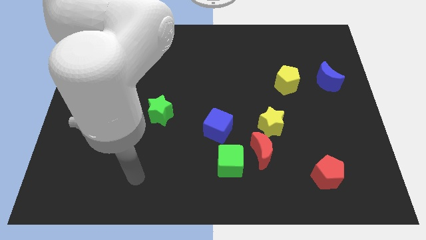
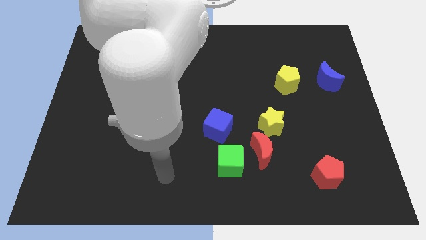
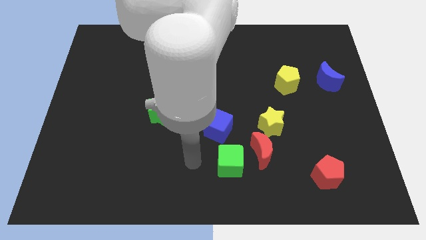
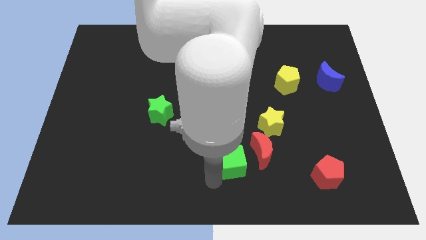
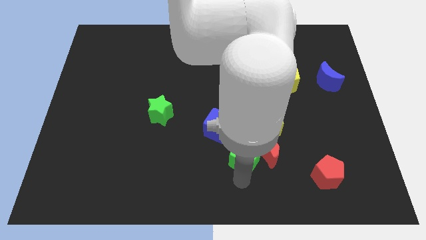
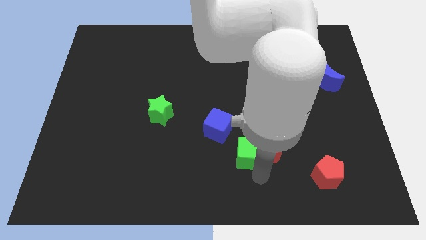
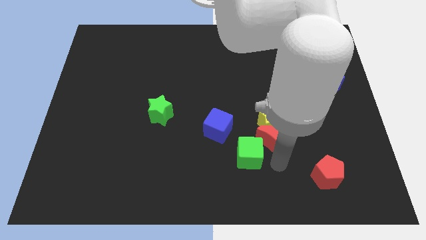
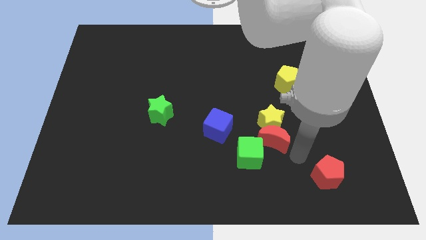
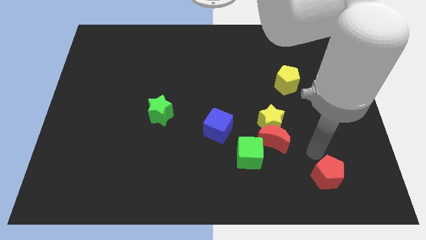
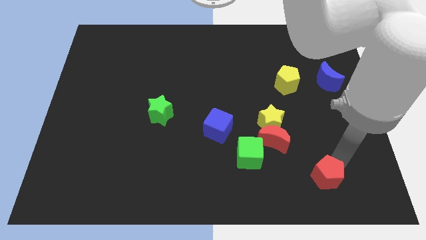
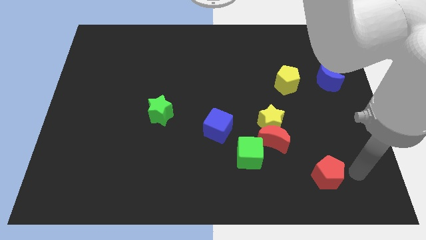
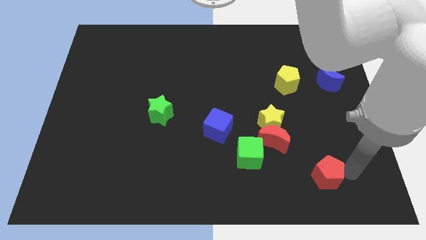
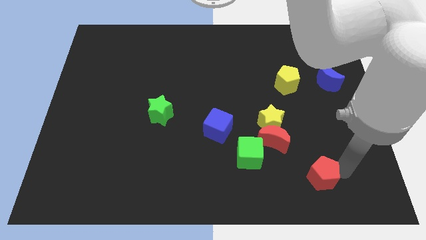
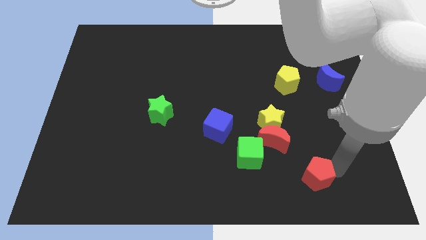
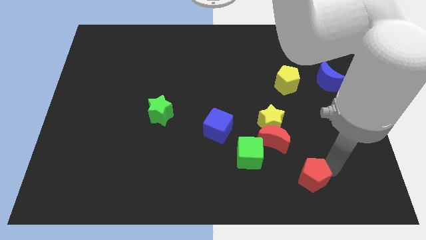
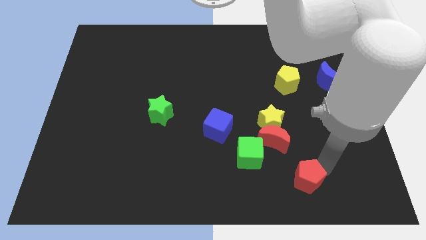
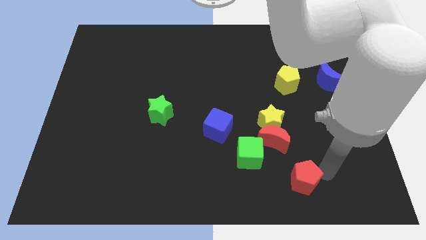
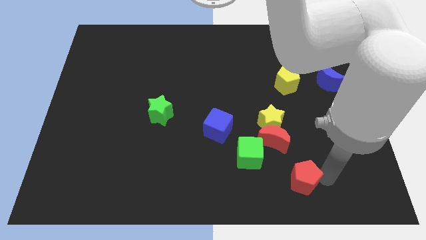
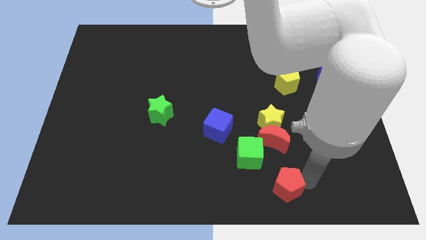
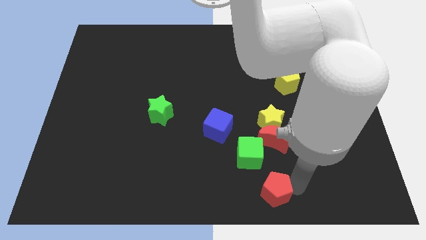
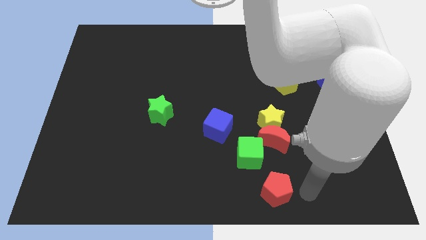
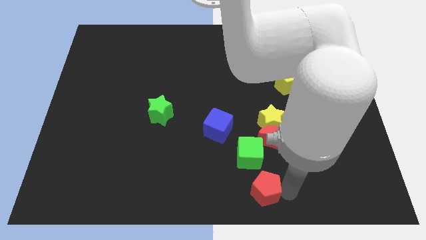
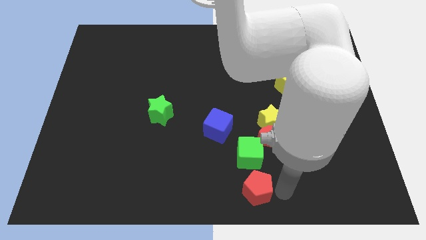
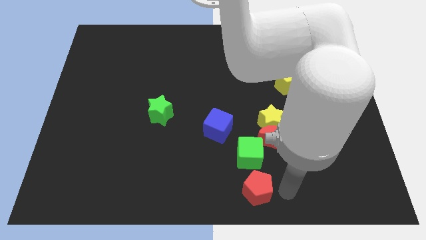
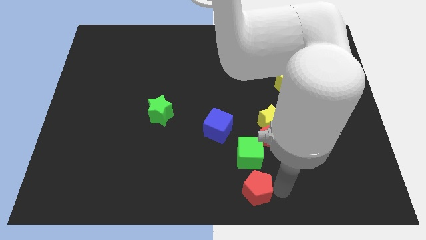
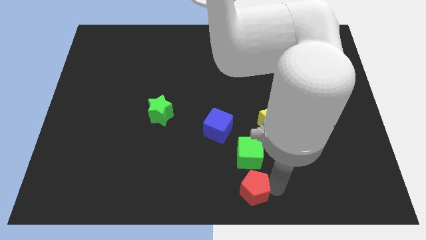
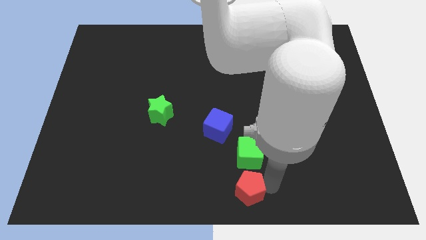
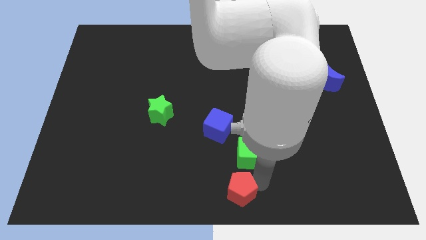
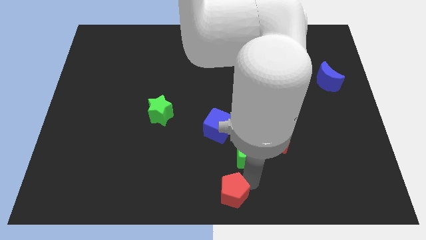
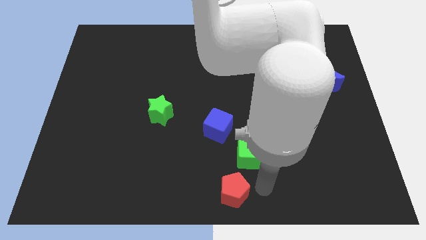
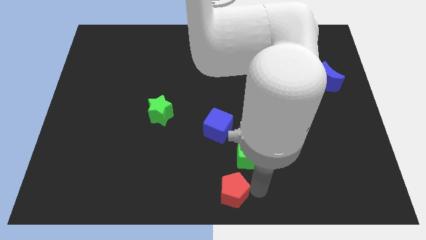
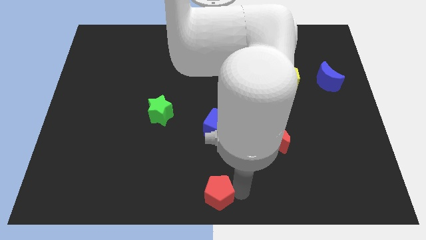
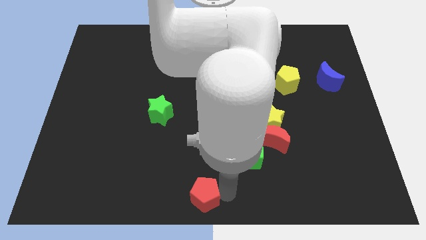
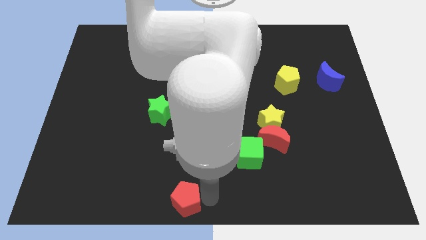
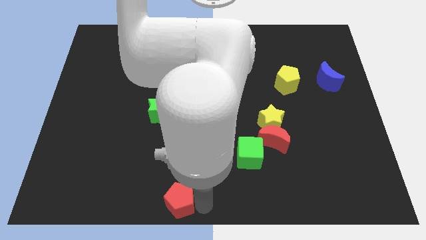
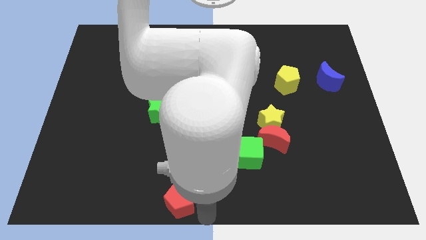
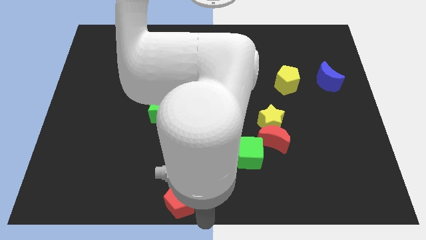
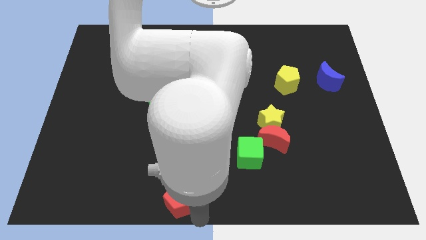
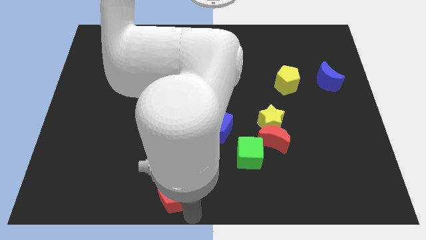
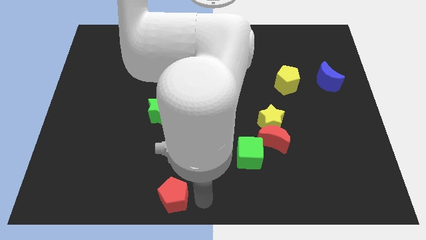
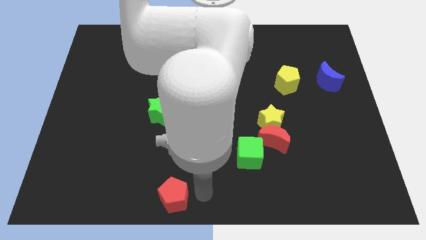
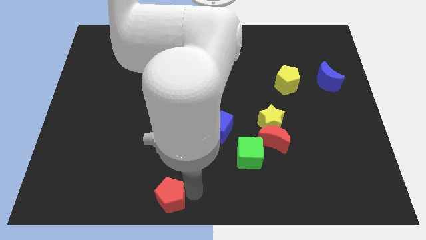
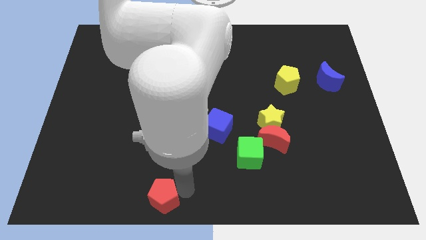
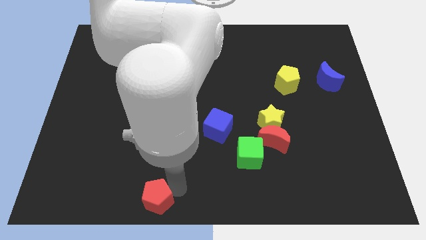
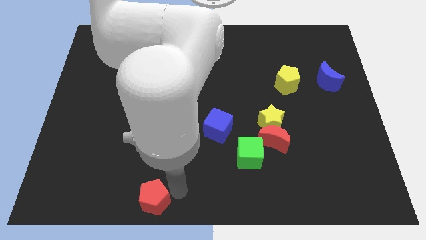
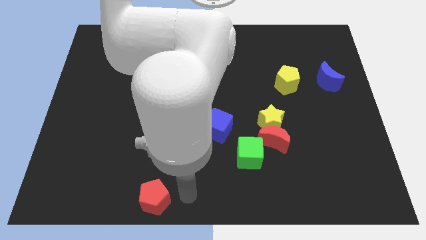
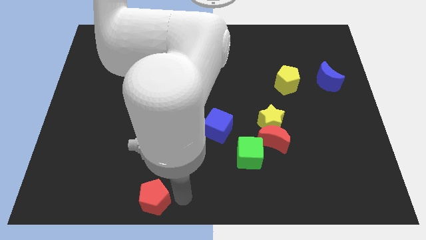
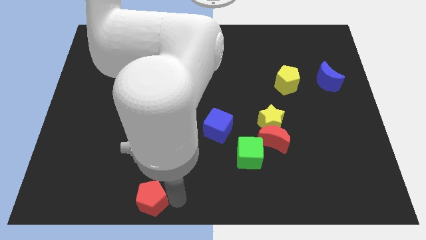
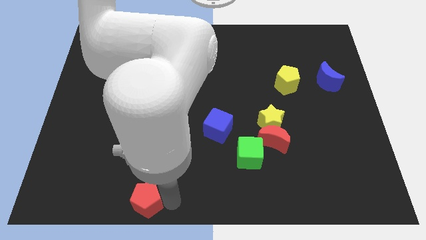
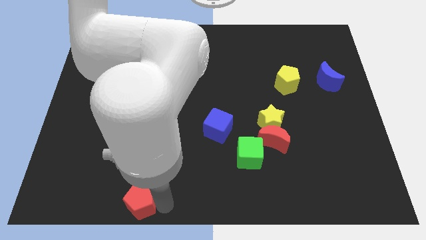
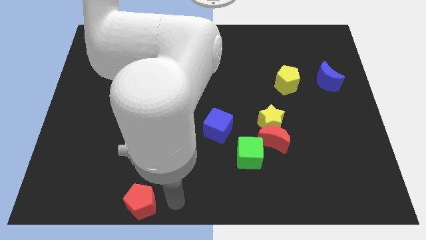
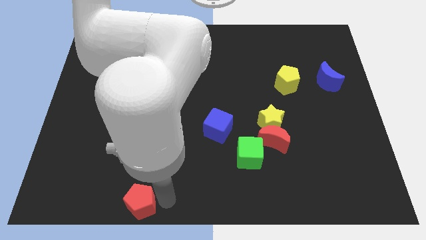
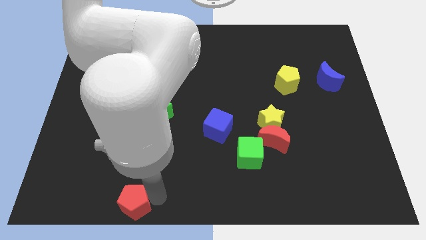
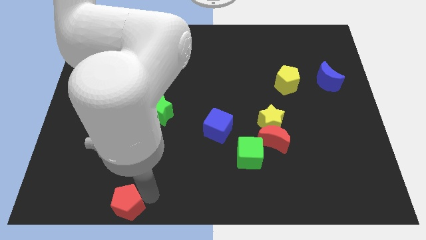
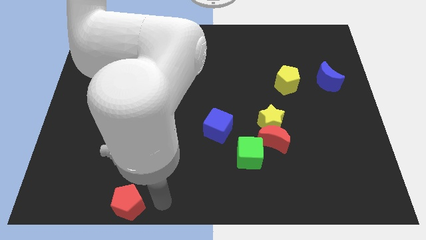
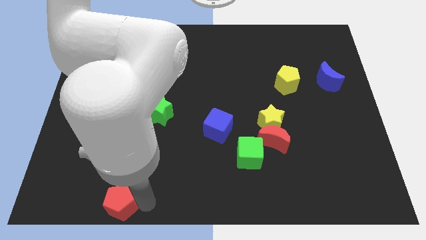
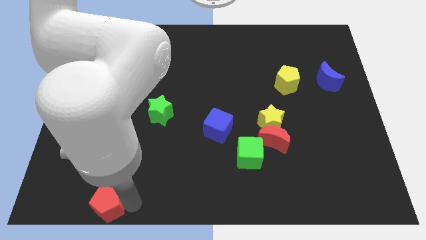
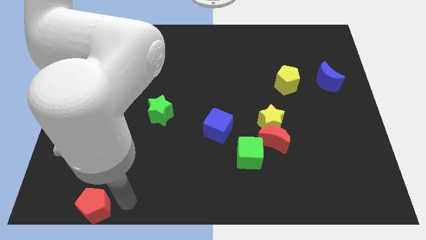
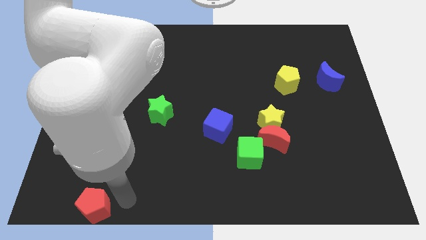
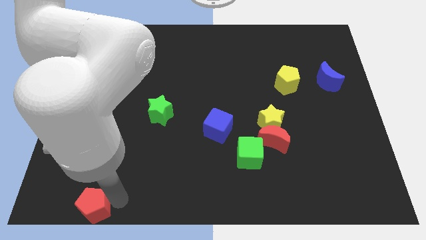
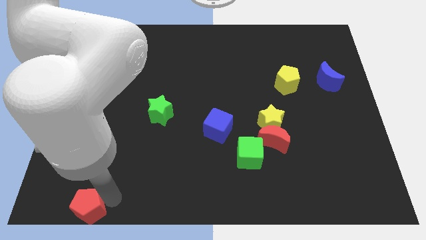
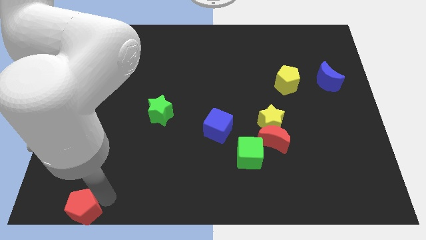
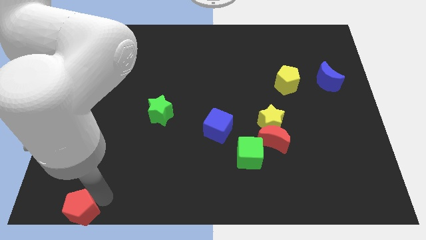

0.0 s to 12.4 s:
move the red pentagon to the lower left corner

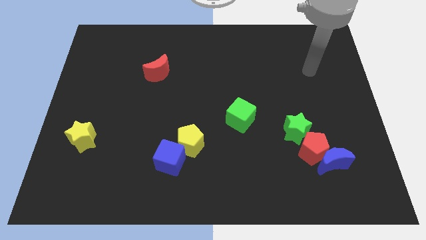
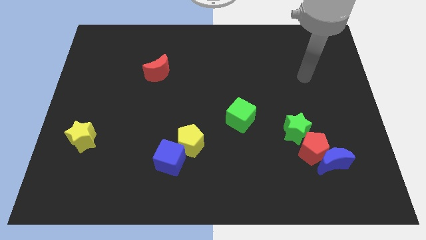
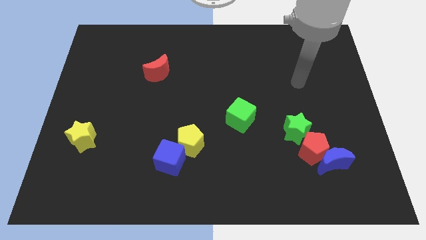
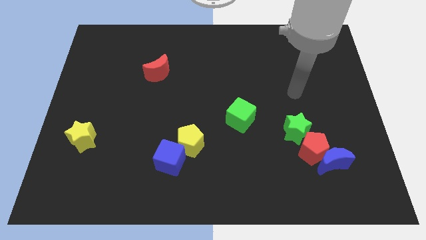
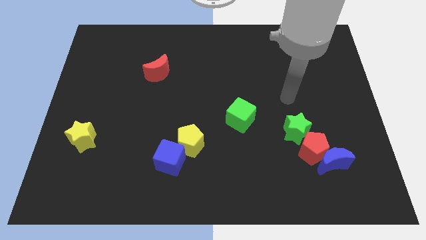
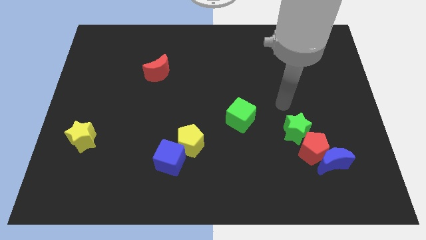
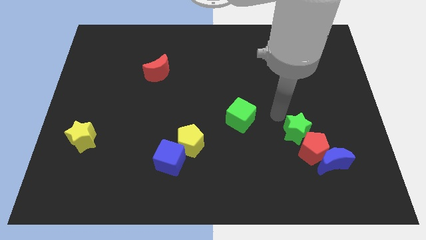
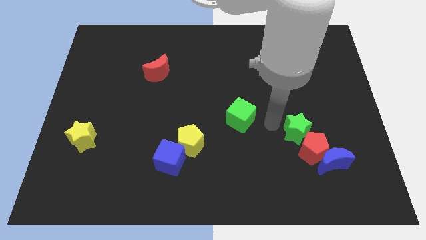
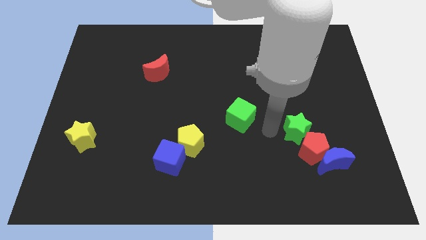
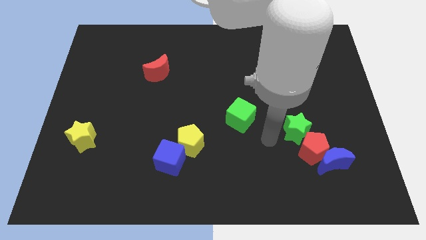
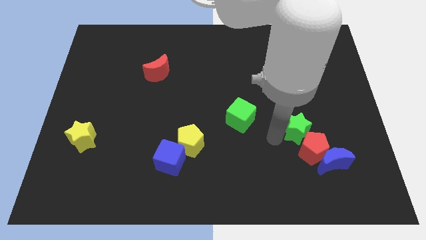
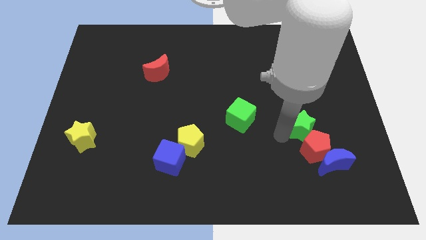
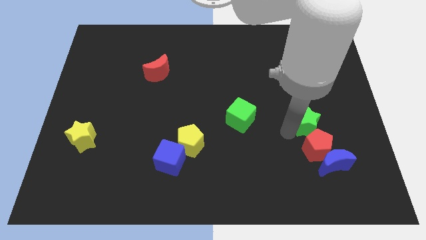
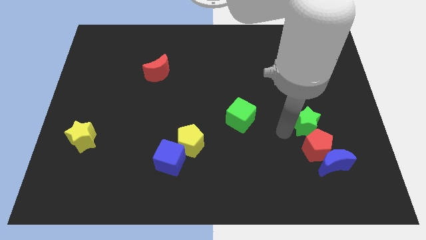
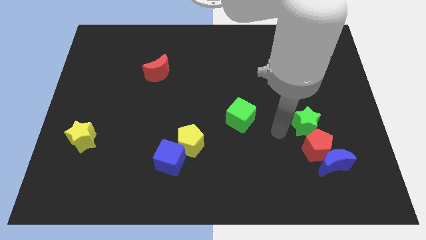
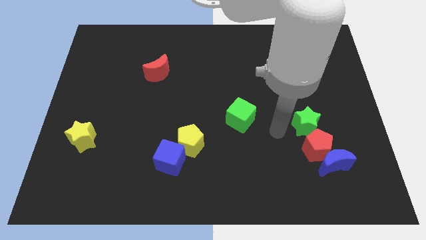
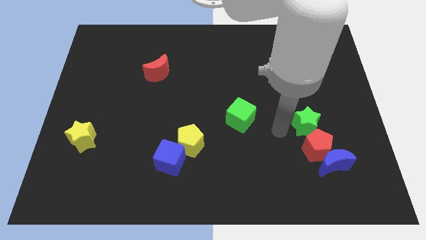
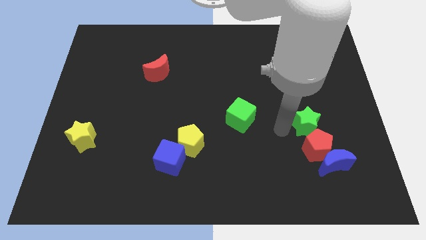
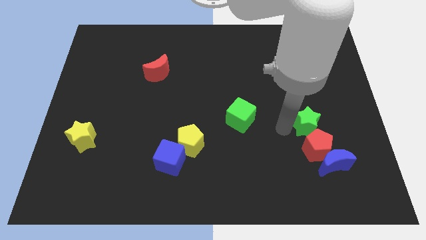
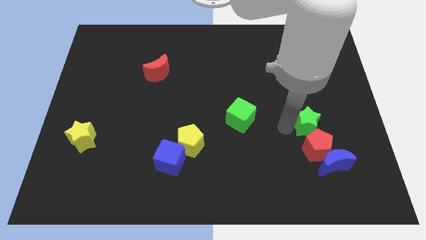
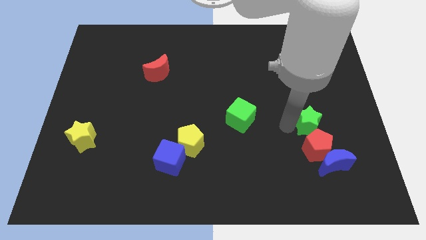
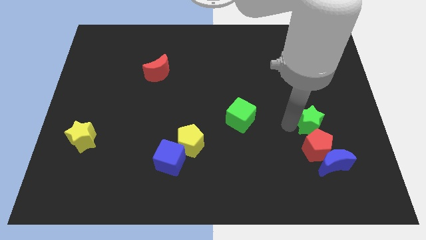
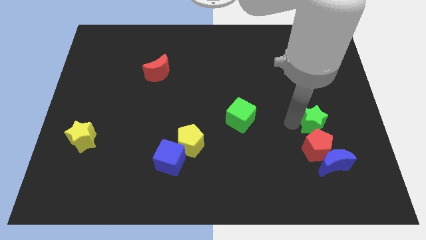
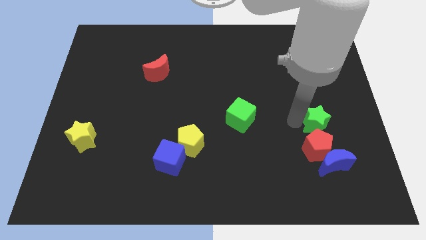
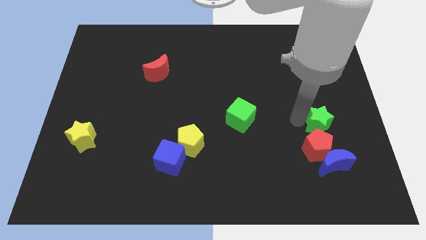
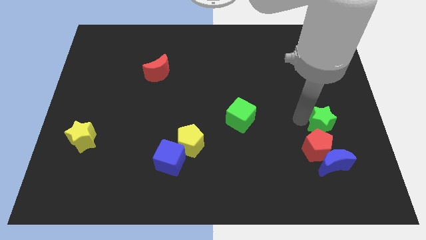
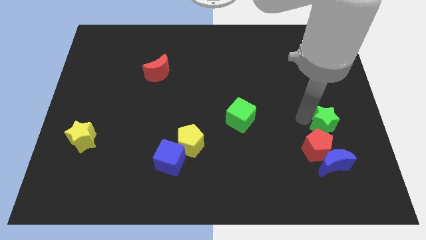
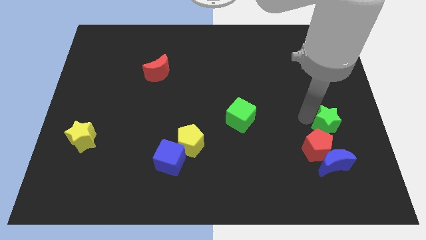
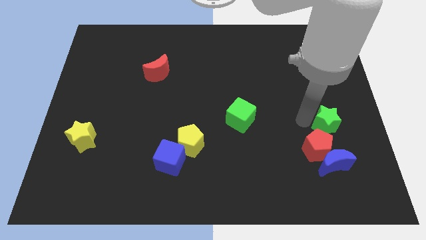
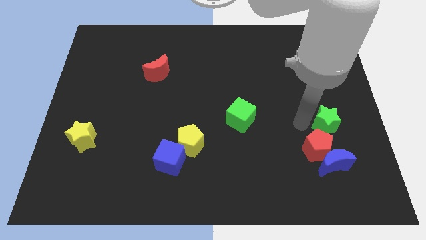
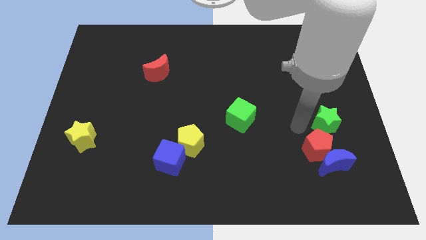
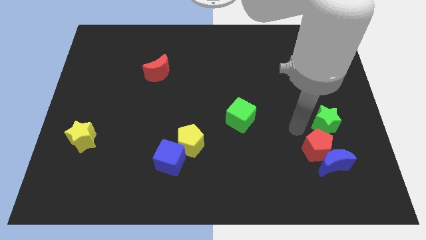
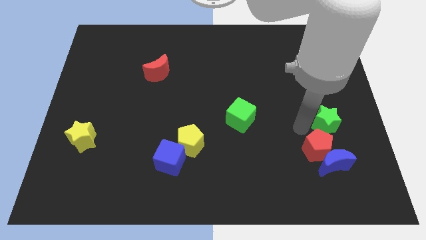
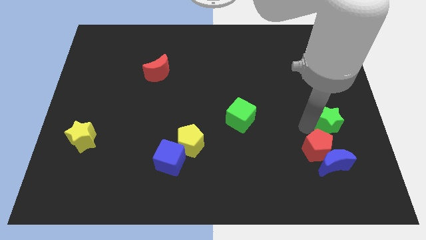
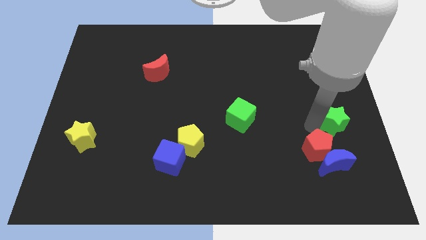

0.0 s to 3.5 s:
move the green star to the right side
